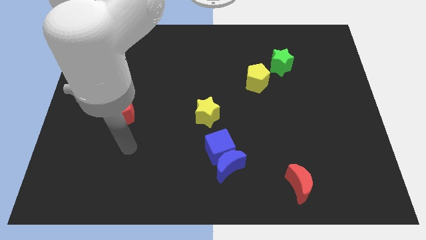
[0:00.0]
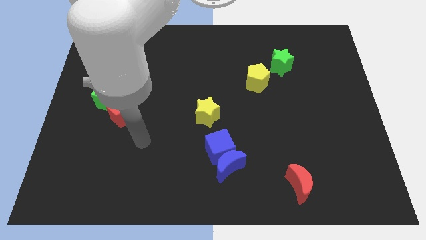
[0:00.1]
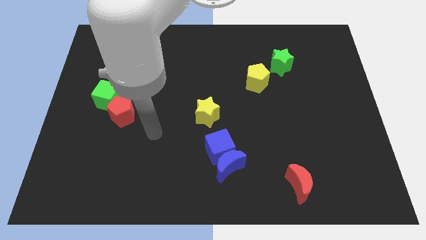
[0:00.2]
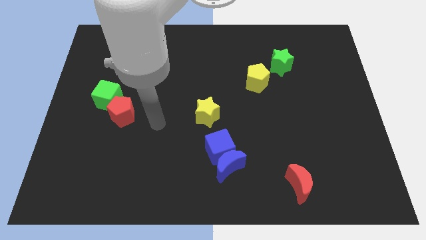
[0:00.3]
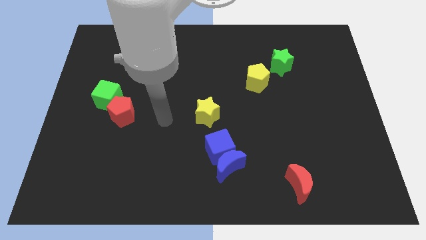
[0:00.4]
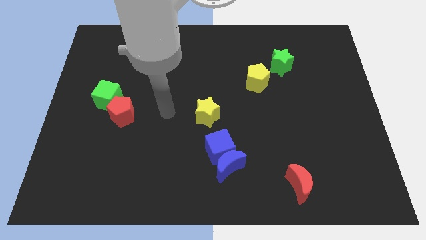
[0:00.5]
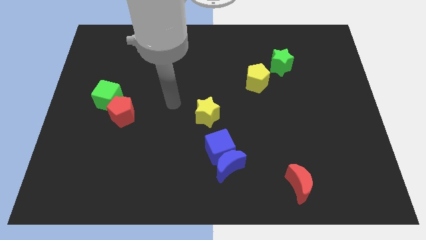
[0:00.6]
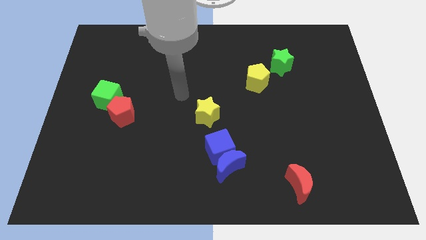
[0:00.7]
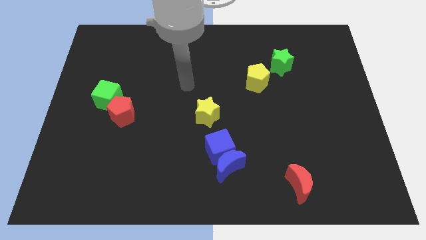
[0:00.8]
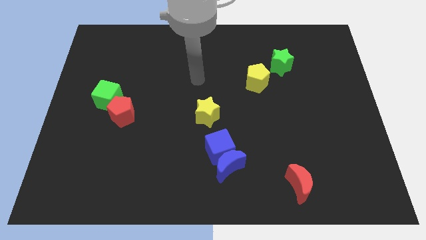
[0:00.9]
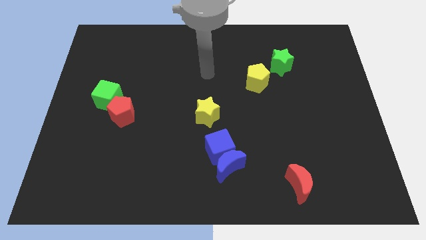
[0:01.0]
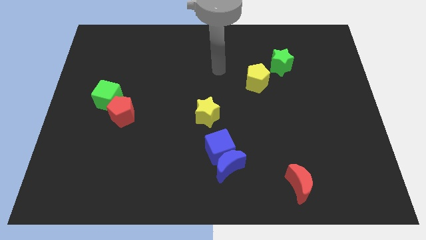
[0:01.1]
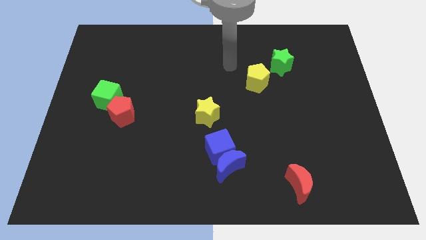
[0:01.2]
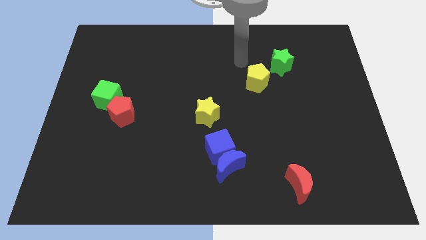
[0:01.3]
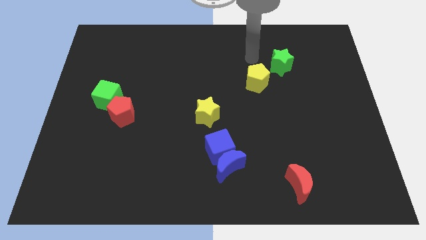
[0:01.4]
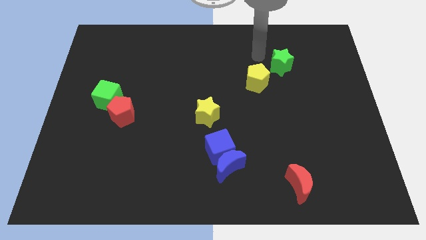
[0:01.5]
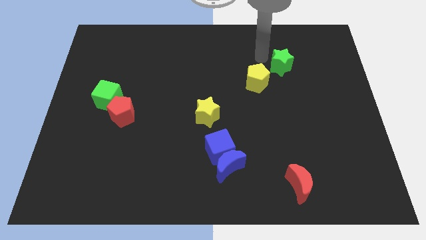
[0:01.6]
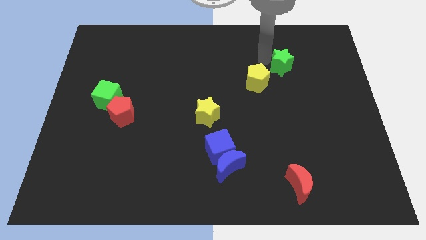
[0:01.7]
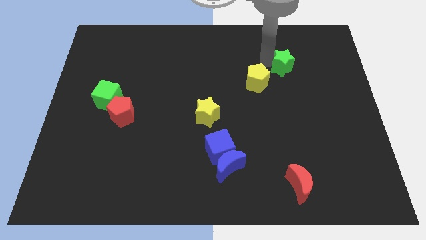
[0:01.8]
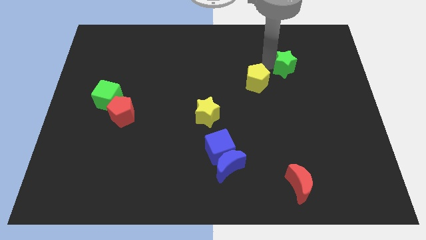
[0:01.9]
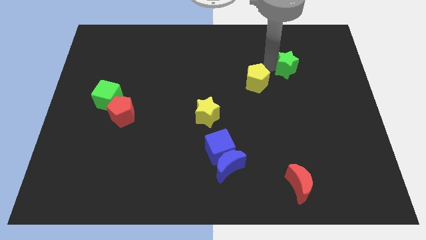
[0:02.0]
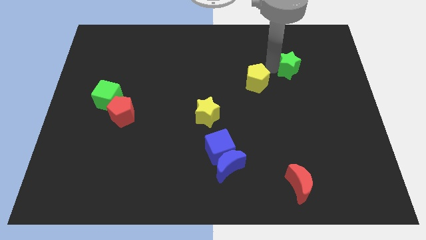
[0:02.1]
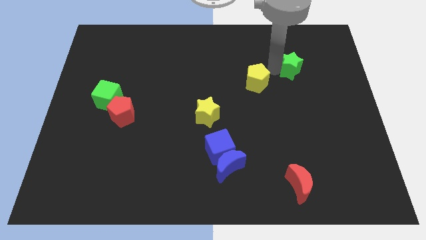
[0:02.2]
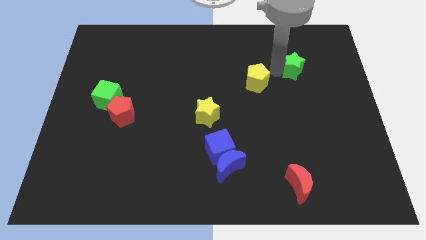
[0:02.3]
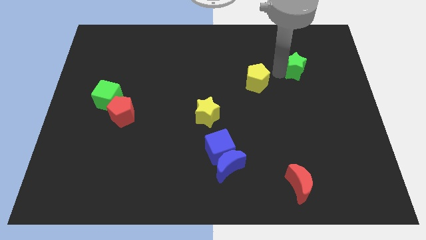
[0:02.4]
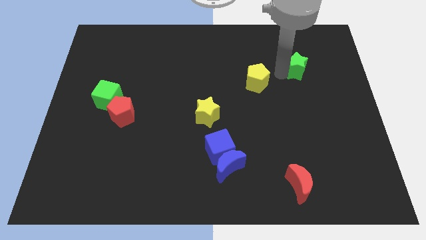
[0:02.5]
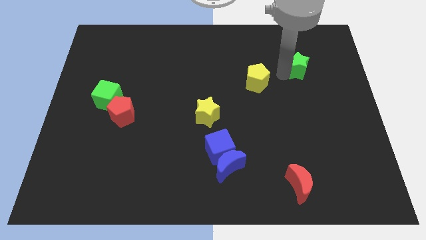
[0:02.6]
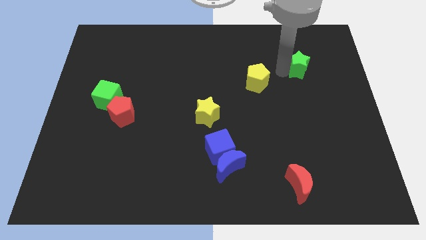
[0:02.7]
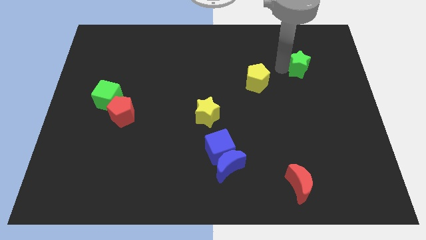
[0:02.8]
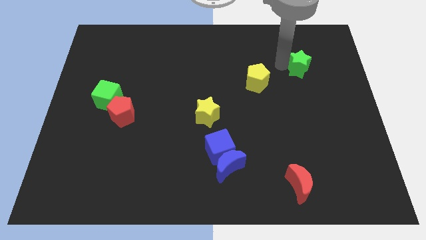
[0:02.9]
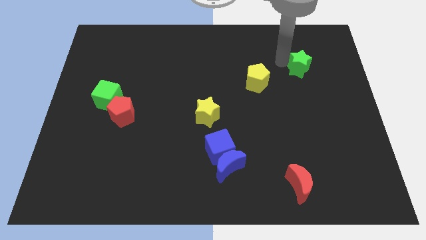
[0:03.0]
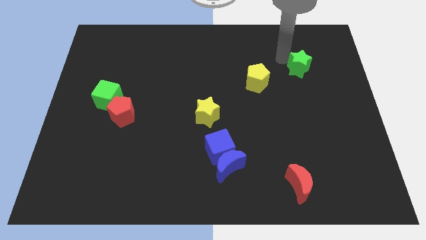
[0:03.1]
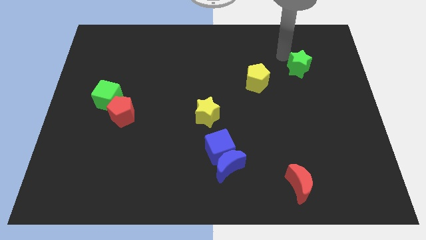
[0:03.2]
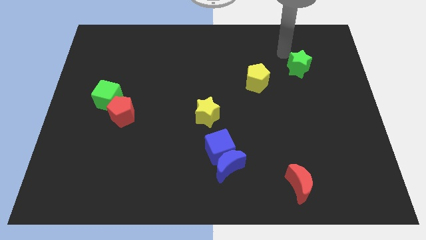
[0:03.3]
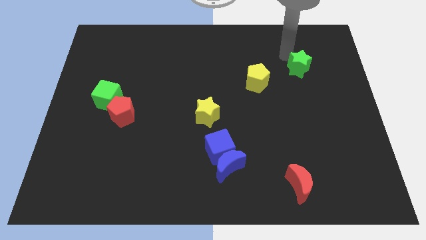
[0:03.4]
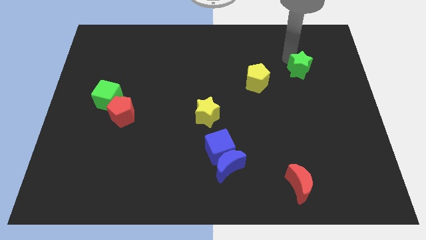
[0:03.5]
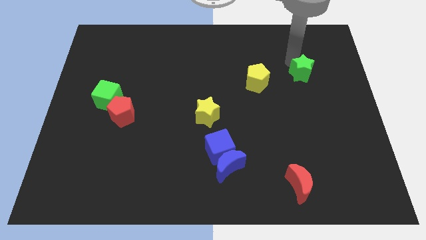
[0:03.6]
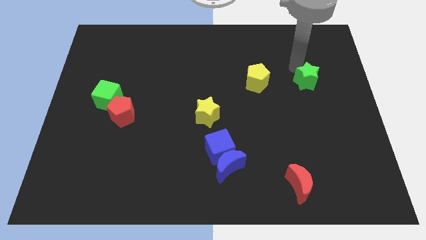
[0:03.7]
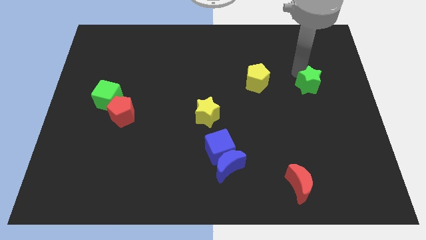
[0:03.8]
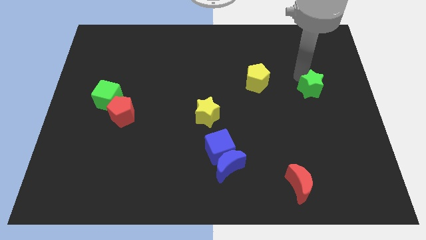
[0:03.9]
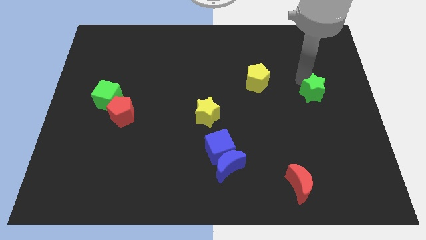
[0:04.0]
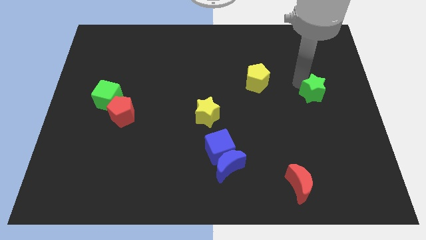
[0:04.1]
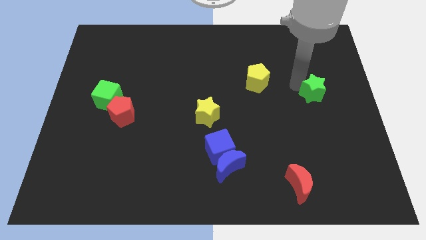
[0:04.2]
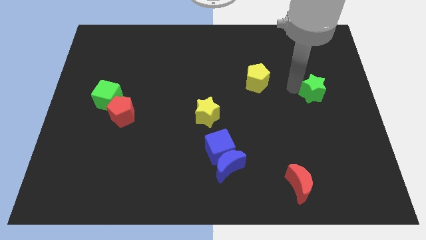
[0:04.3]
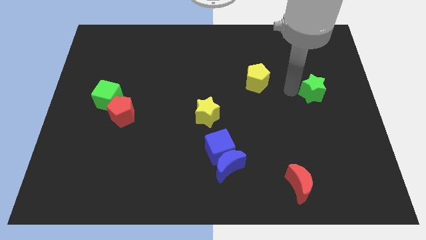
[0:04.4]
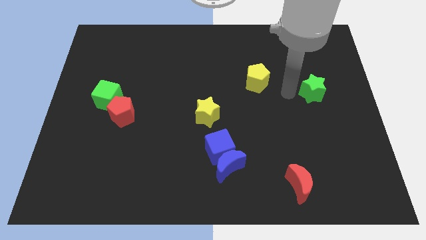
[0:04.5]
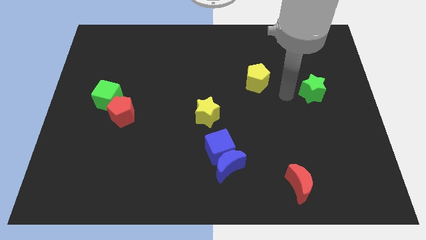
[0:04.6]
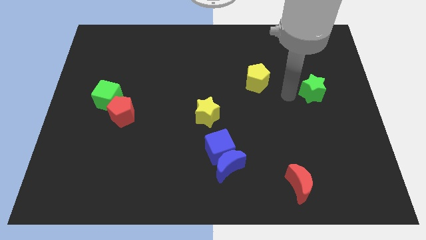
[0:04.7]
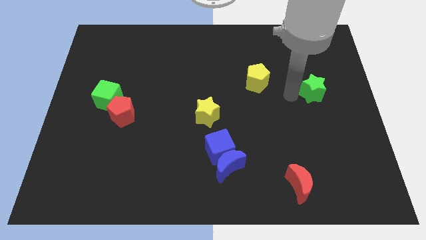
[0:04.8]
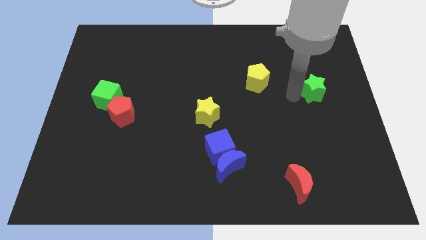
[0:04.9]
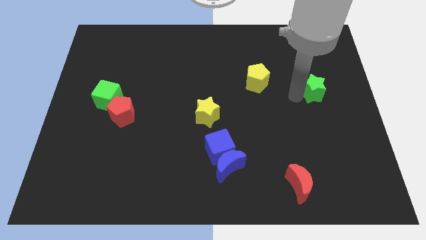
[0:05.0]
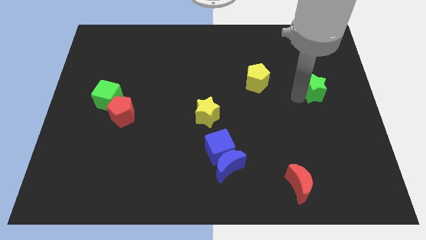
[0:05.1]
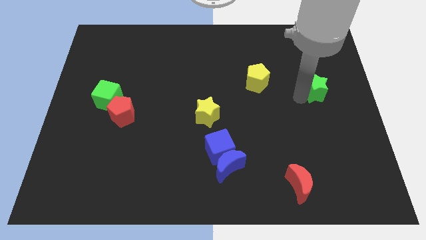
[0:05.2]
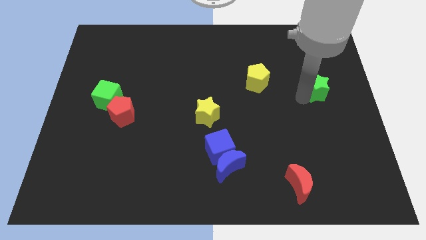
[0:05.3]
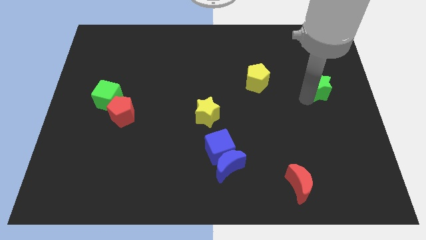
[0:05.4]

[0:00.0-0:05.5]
slide the green star to the right side of the board
